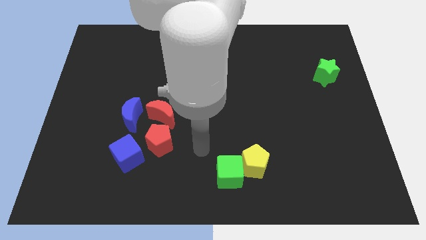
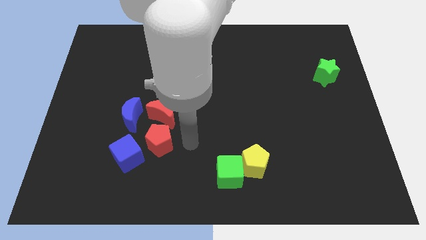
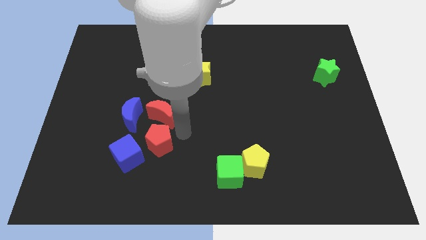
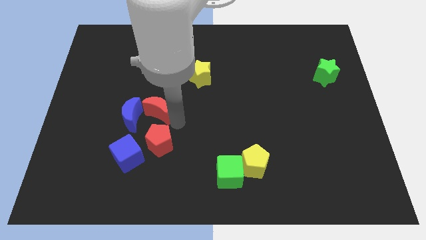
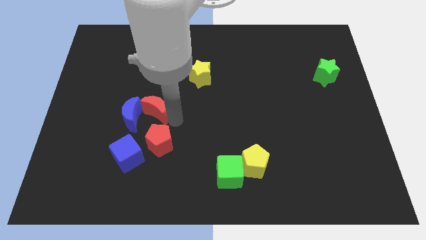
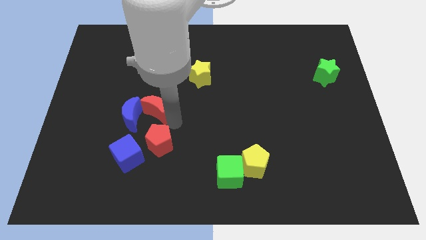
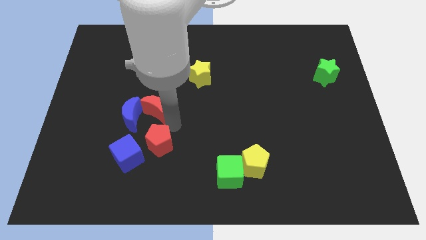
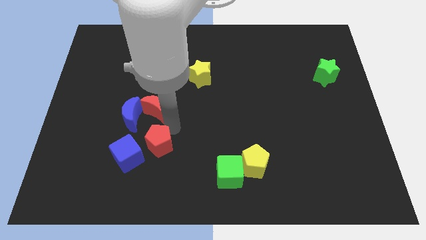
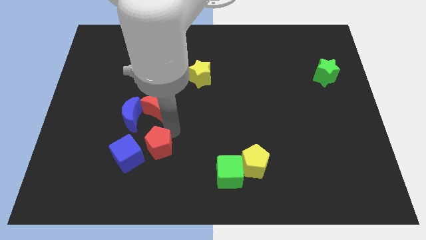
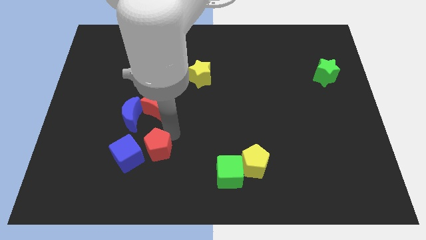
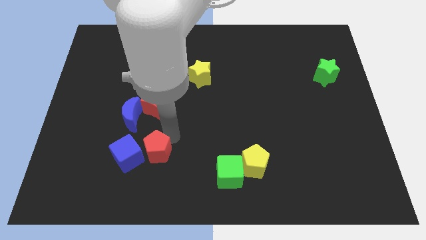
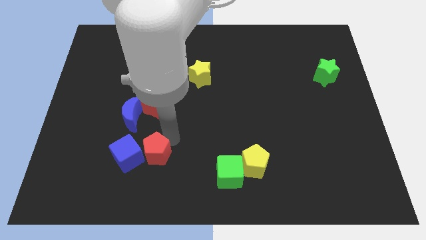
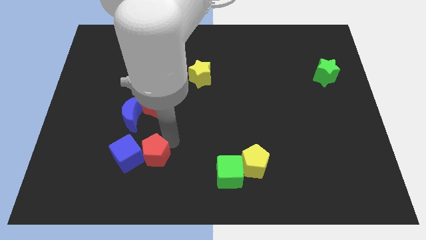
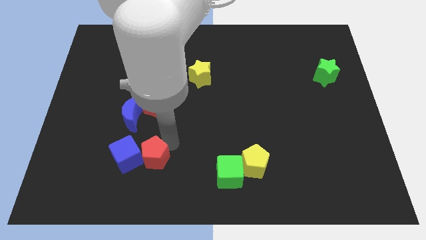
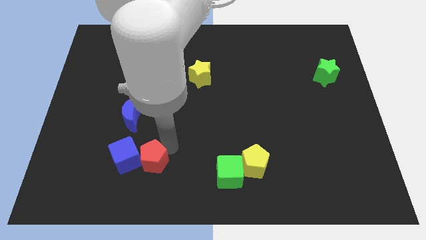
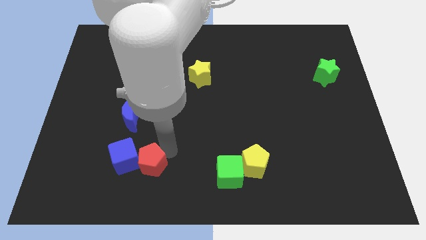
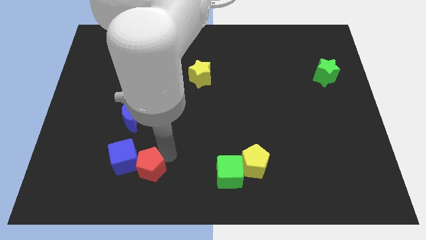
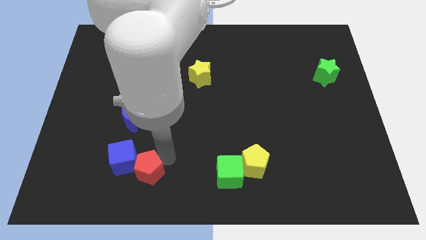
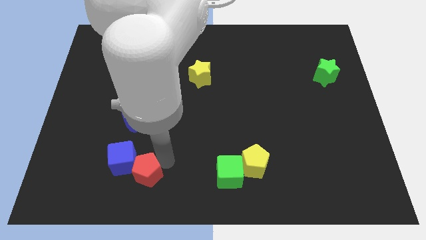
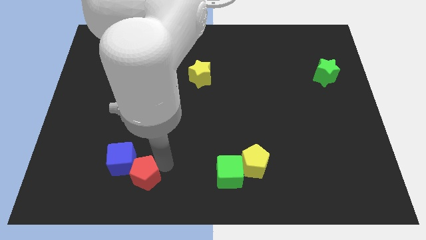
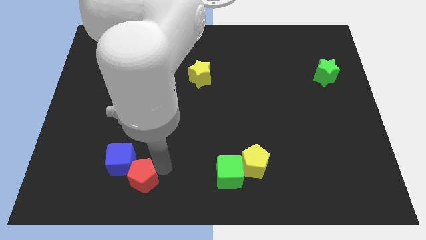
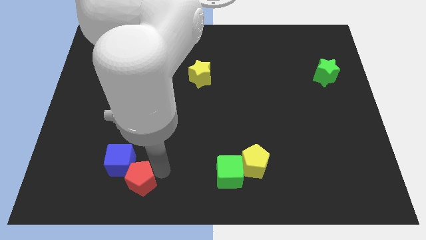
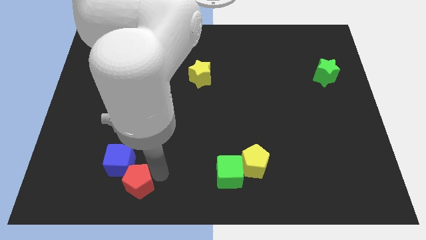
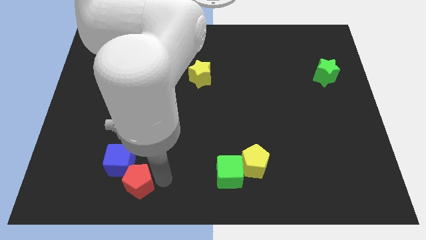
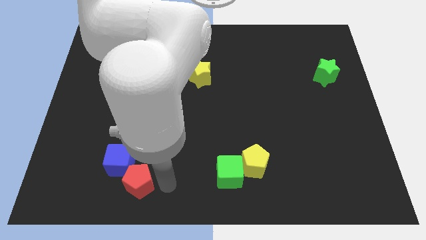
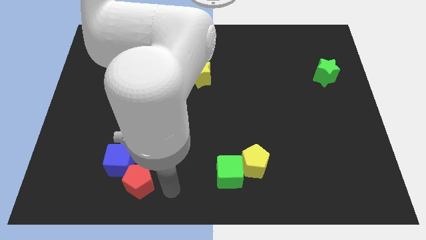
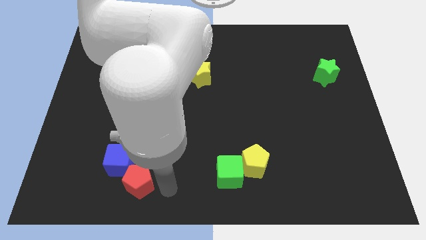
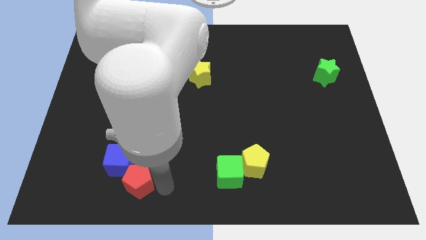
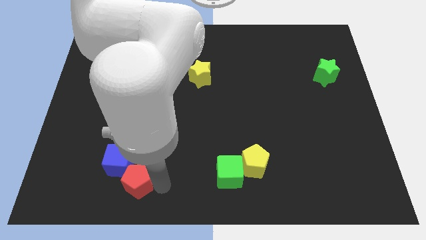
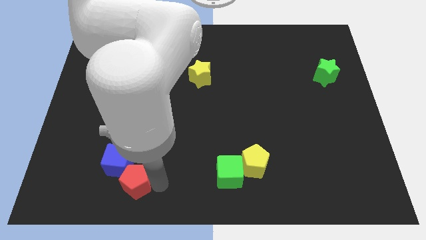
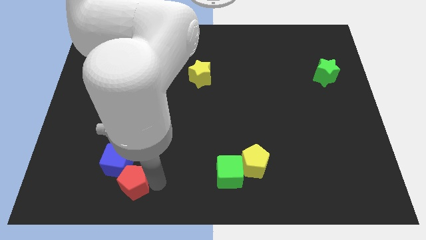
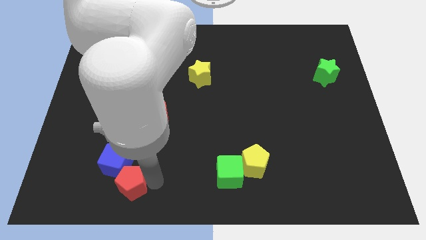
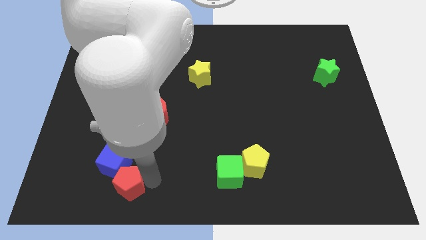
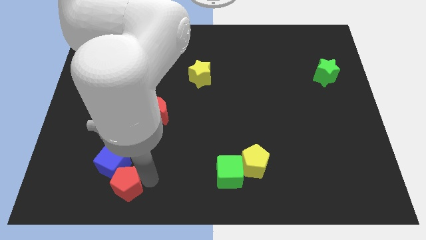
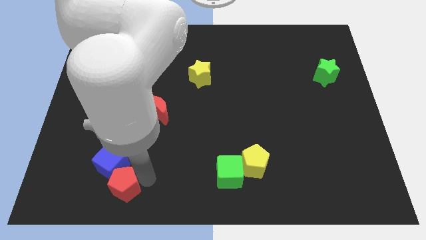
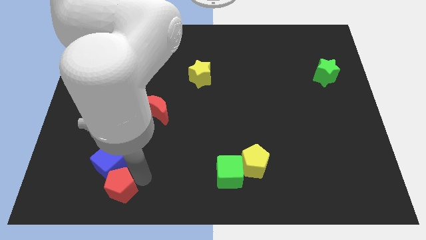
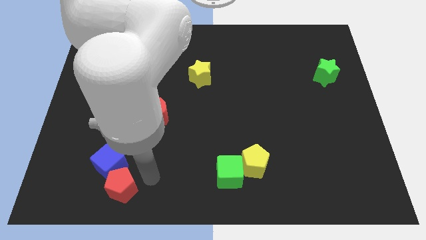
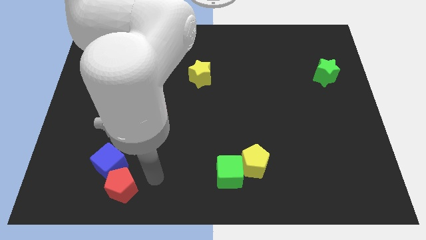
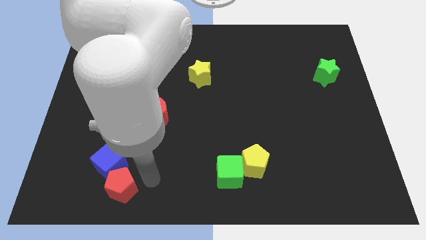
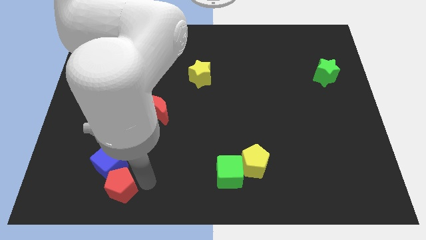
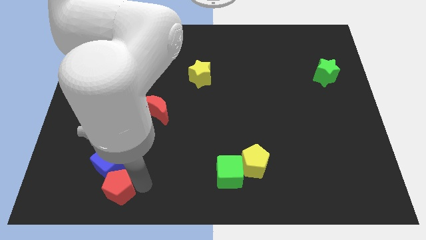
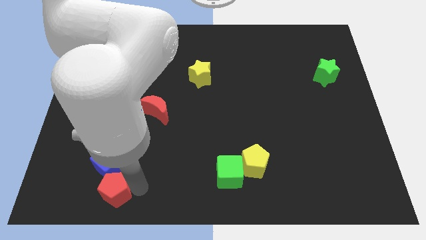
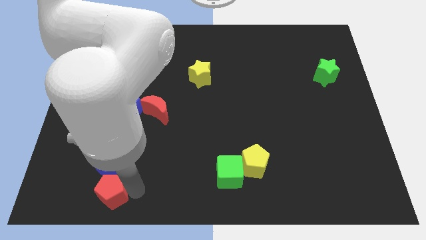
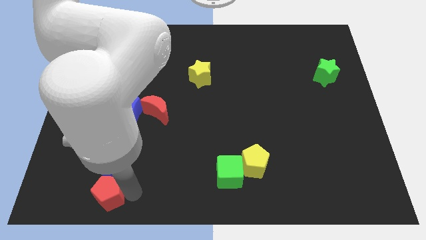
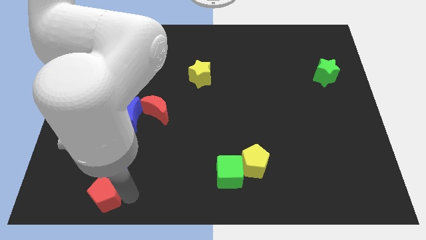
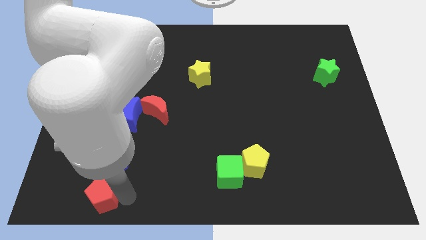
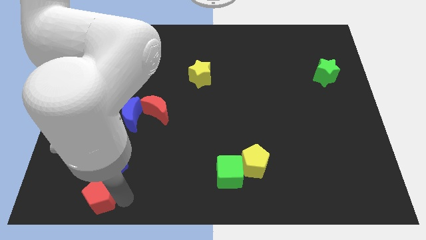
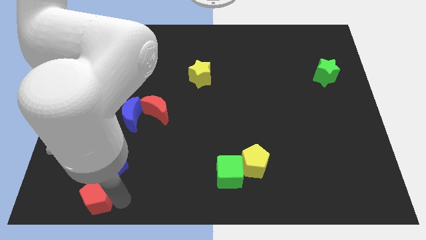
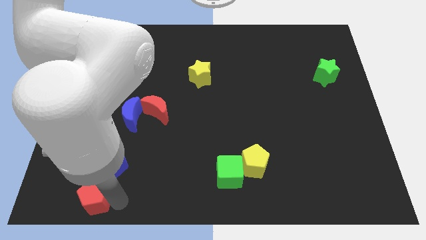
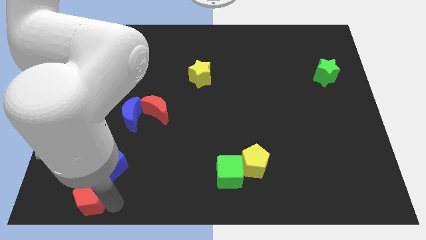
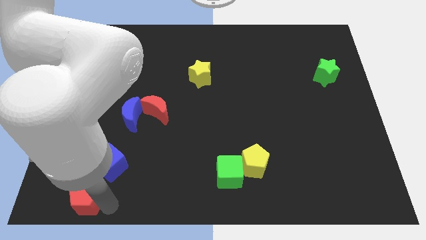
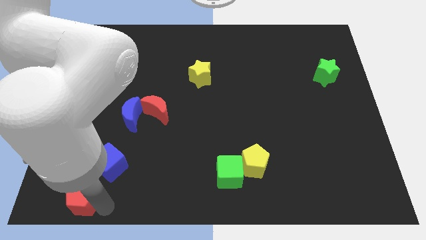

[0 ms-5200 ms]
move the red pentagon to the lower left corner

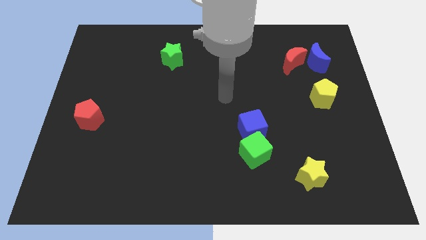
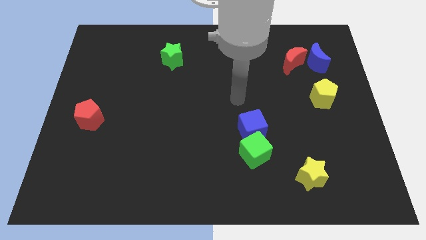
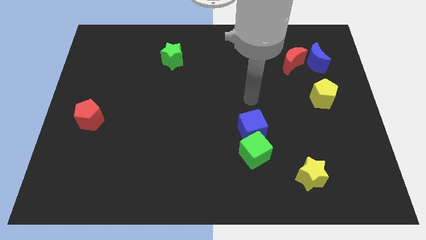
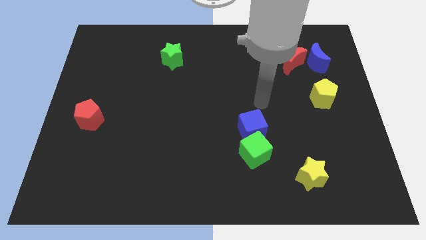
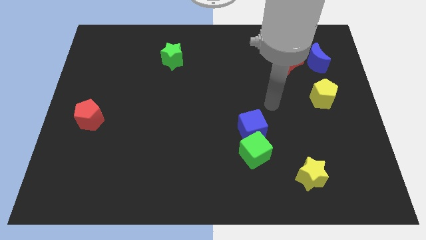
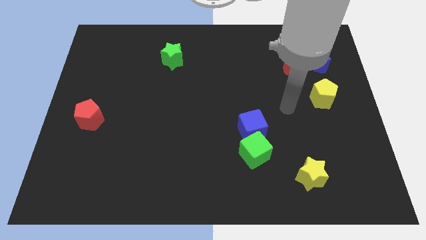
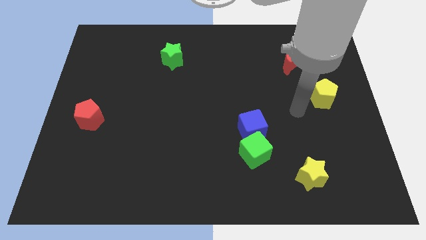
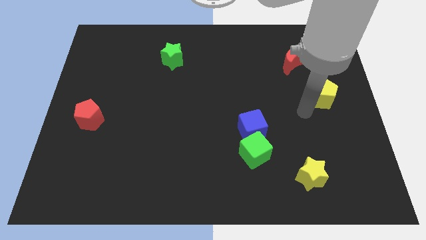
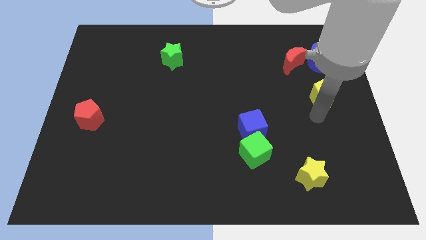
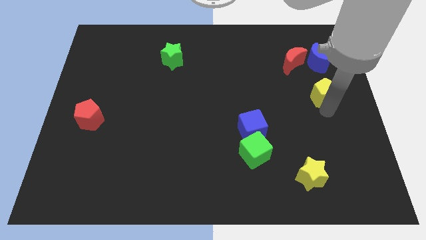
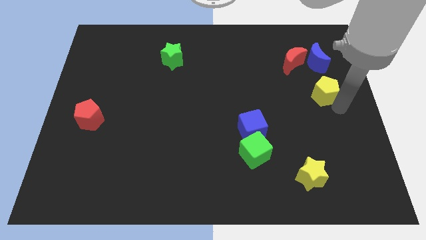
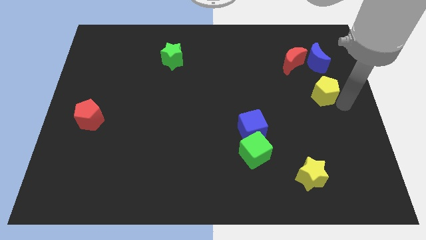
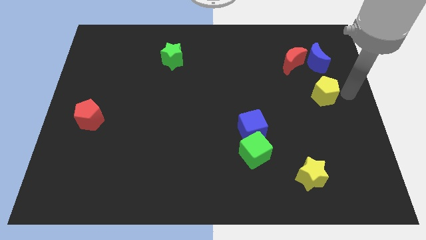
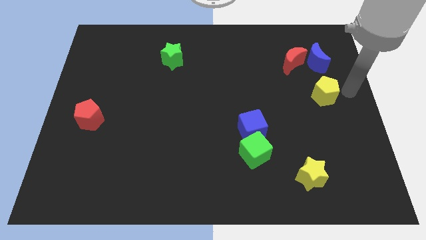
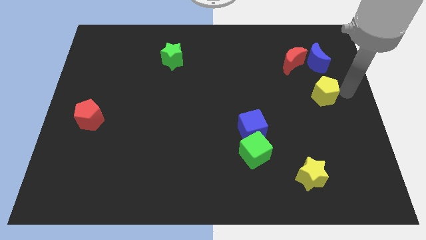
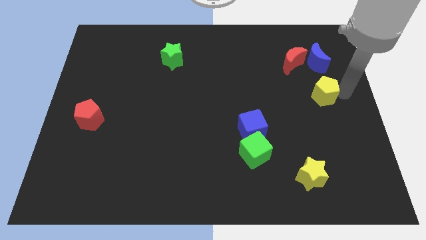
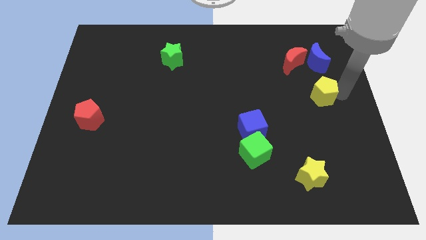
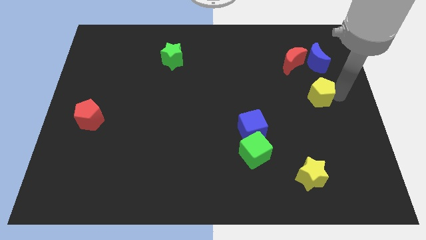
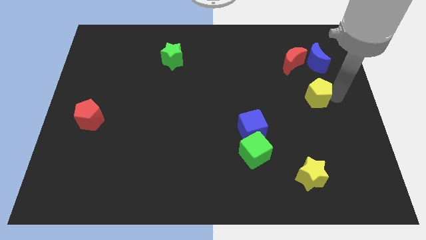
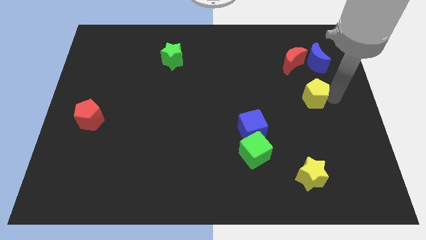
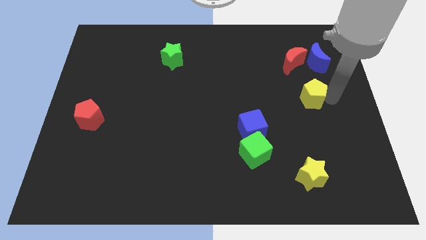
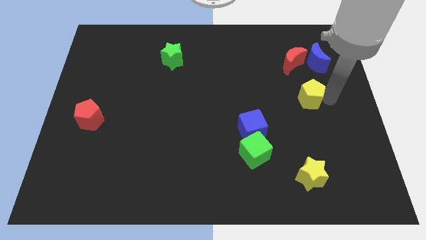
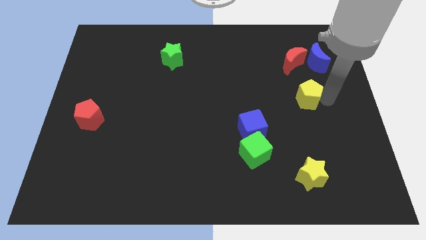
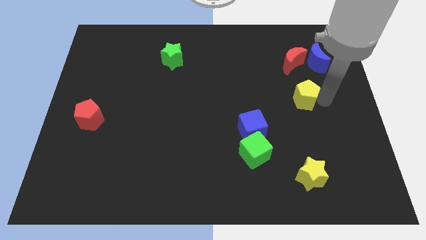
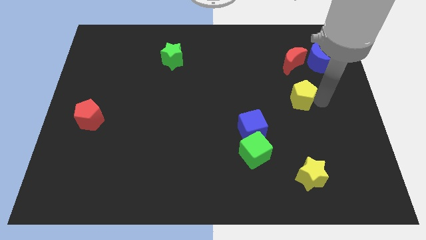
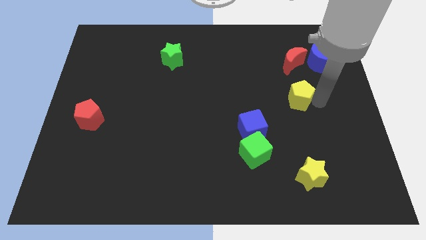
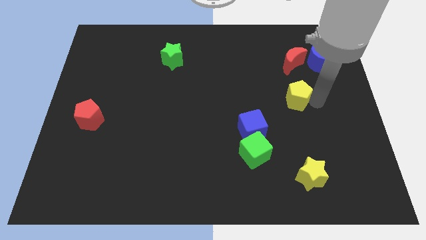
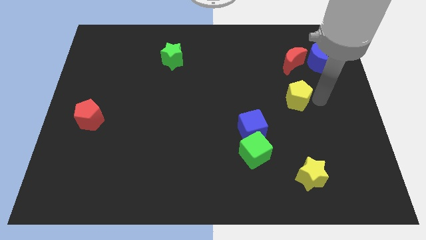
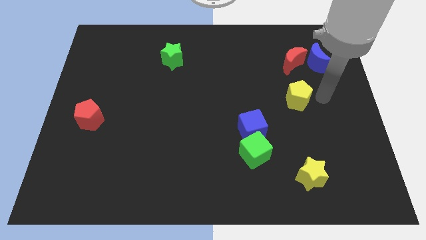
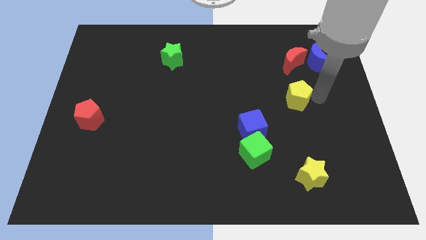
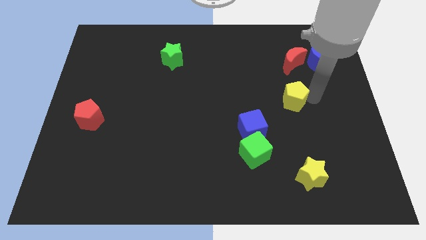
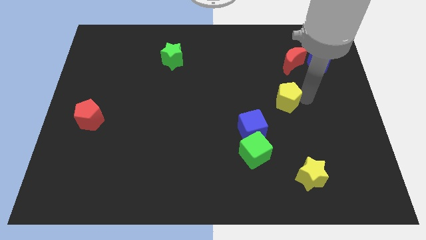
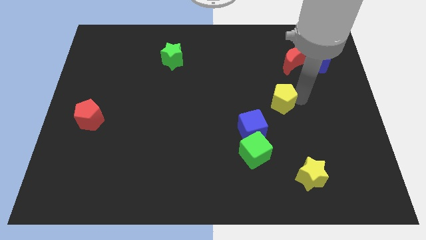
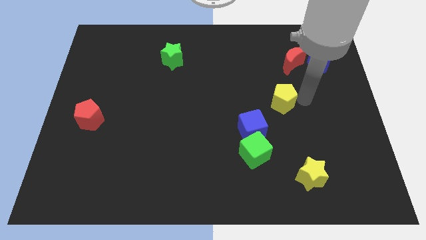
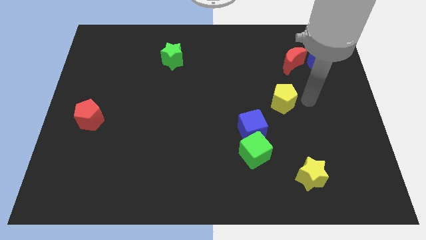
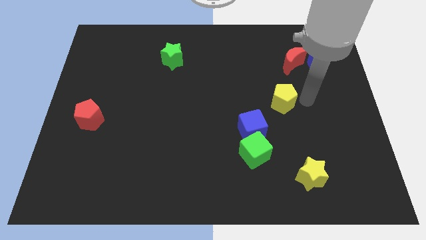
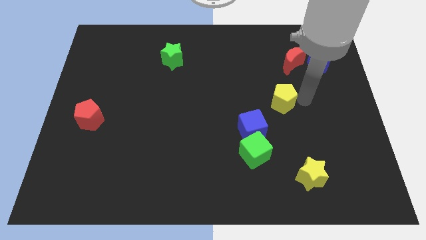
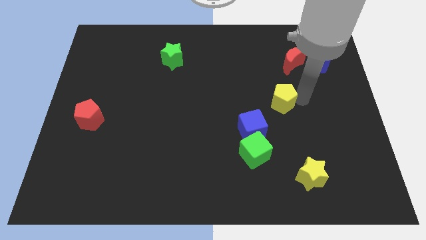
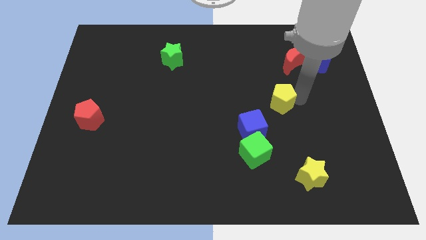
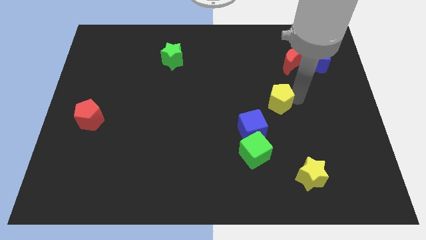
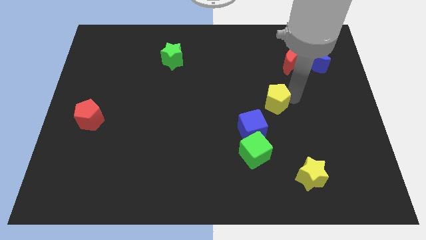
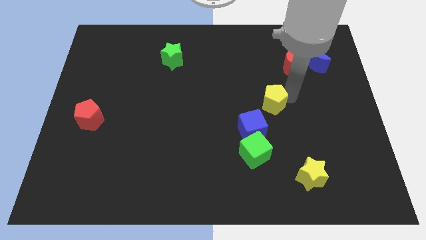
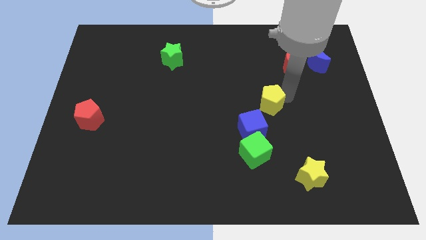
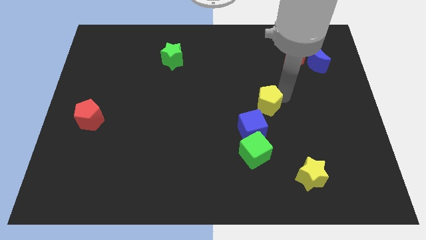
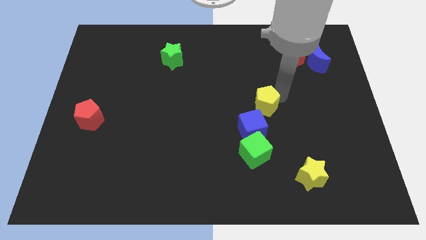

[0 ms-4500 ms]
move the yellow pentagon to the middle of the board
